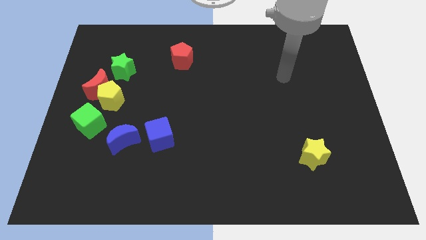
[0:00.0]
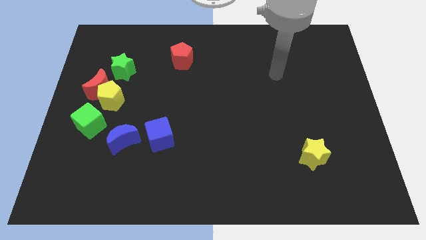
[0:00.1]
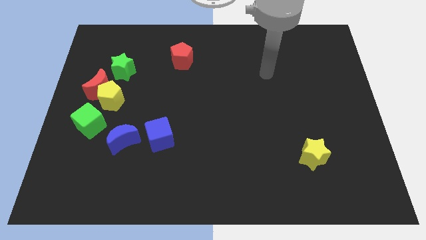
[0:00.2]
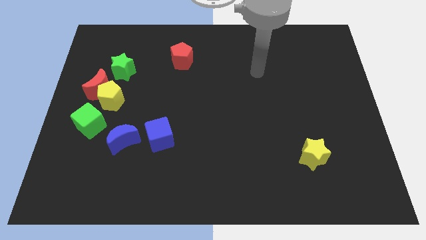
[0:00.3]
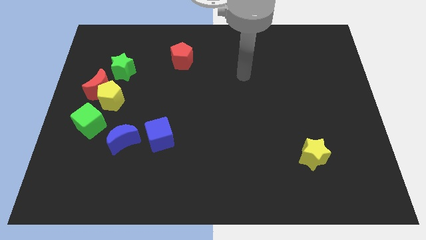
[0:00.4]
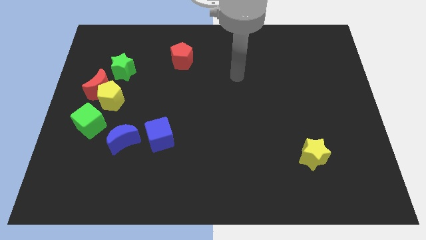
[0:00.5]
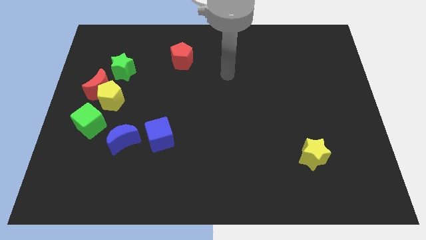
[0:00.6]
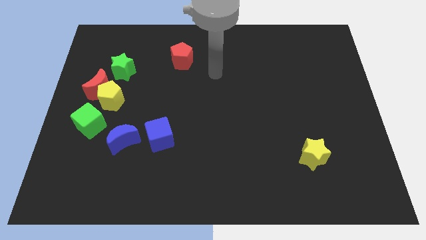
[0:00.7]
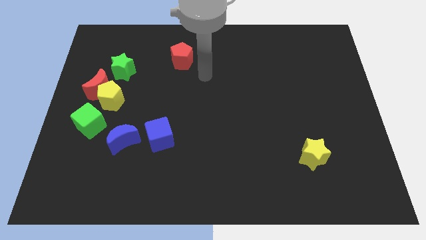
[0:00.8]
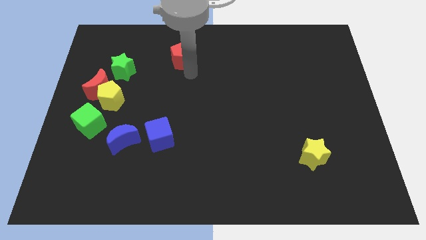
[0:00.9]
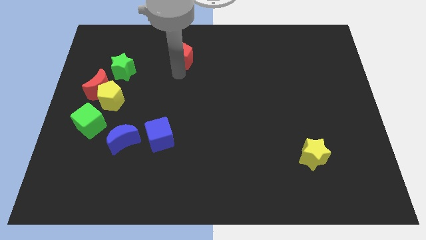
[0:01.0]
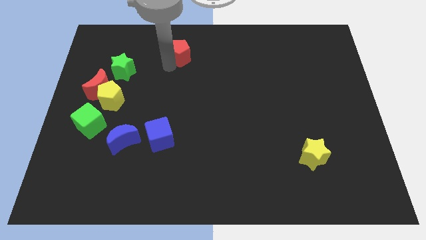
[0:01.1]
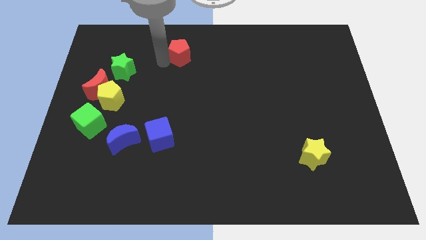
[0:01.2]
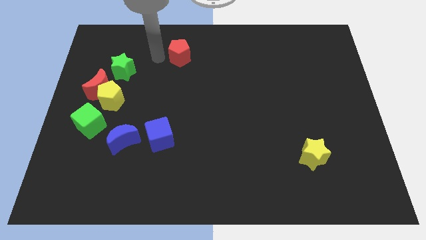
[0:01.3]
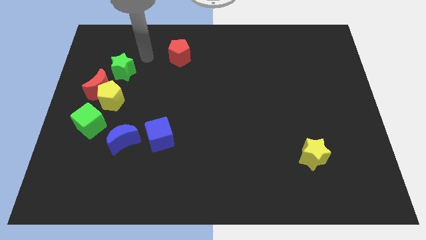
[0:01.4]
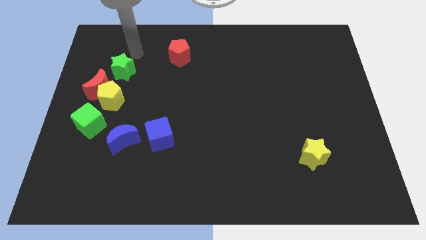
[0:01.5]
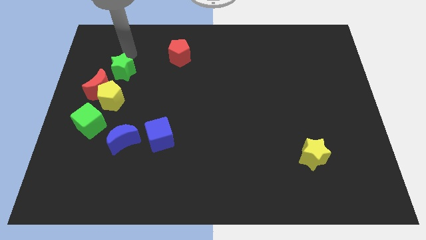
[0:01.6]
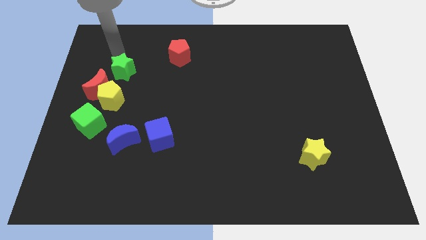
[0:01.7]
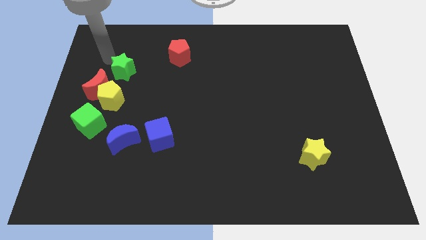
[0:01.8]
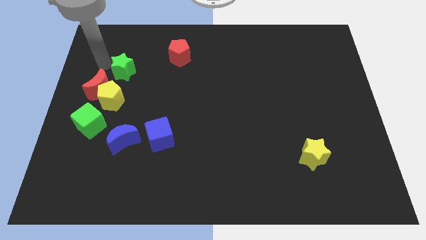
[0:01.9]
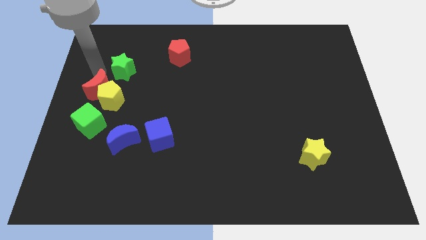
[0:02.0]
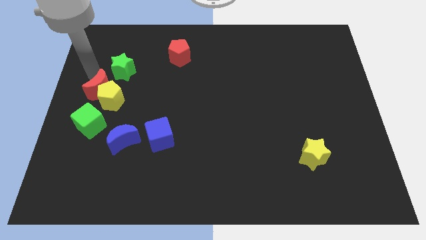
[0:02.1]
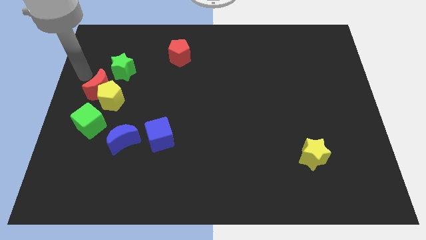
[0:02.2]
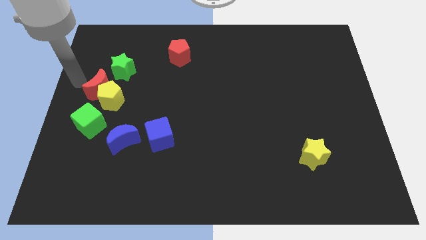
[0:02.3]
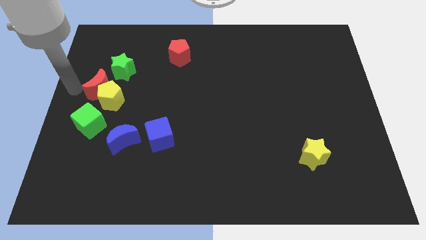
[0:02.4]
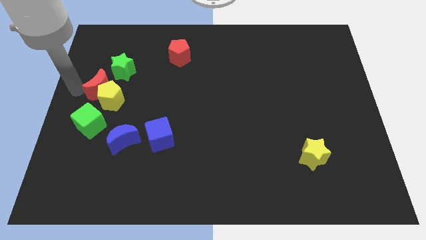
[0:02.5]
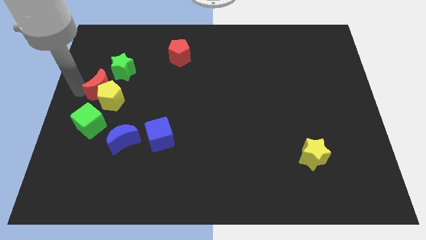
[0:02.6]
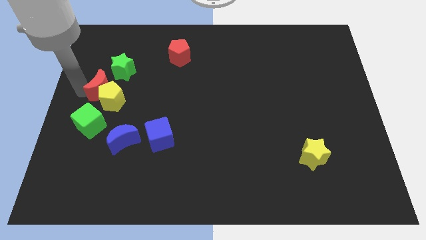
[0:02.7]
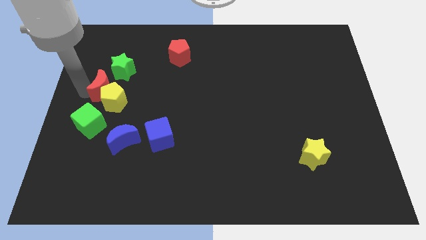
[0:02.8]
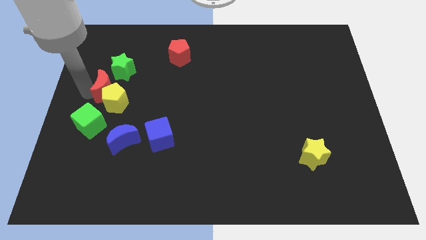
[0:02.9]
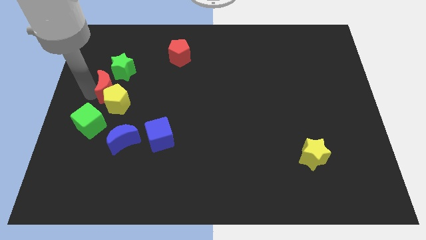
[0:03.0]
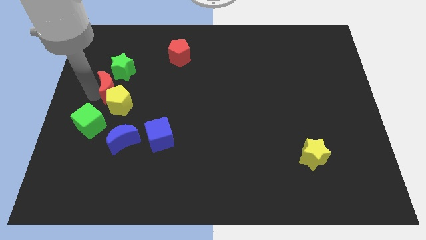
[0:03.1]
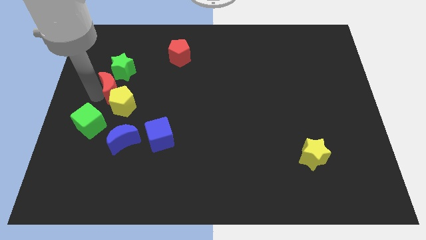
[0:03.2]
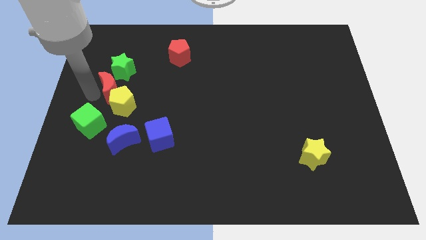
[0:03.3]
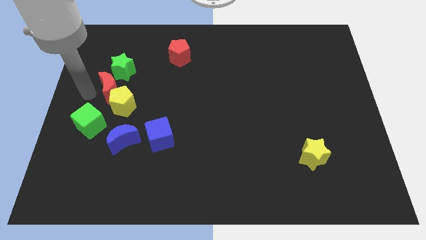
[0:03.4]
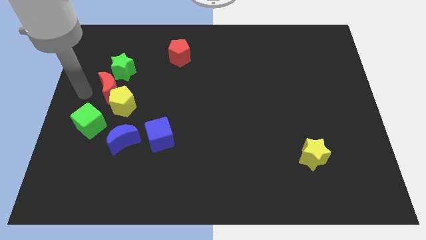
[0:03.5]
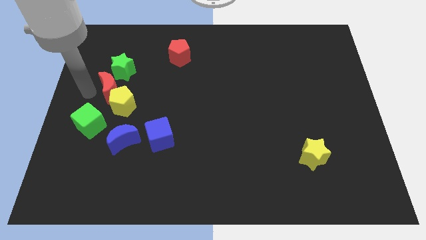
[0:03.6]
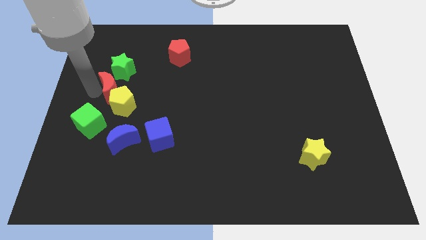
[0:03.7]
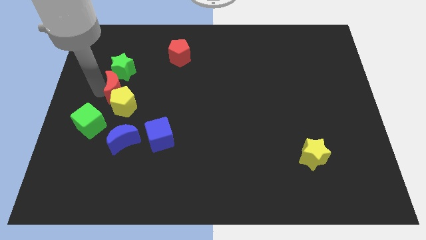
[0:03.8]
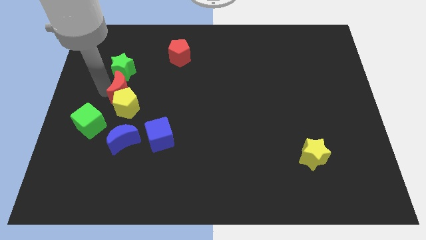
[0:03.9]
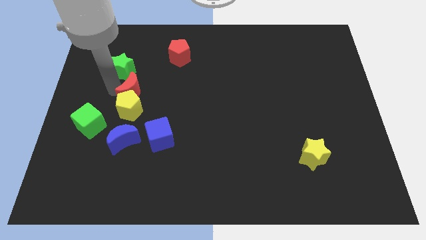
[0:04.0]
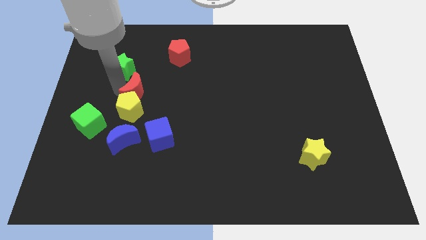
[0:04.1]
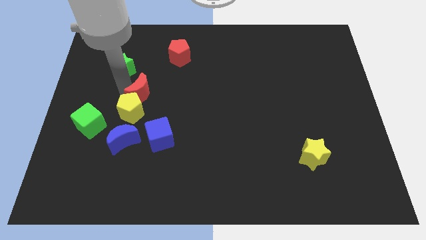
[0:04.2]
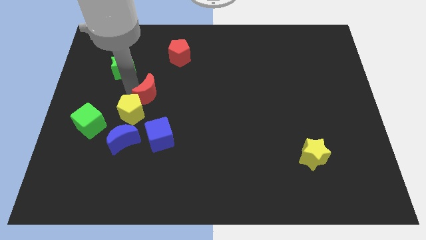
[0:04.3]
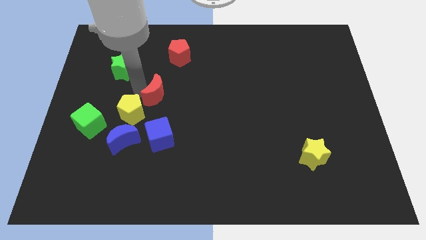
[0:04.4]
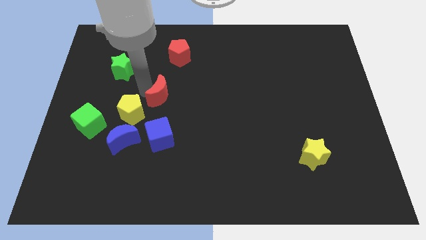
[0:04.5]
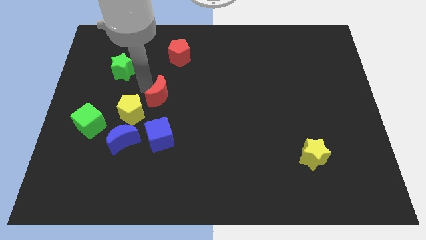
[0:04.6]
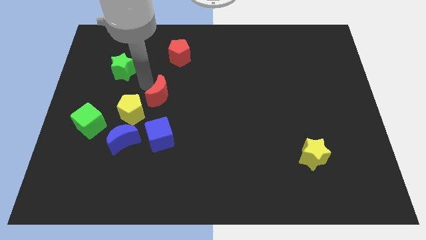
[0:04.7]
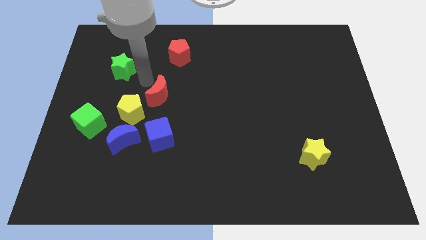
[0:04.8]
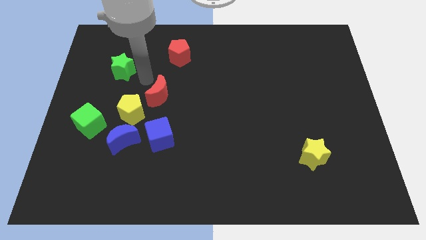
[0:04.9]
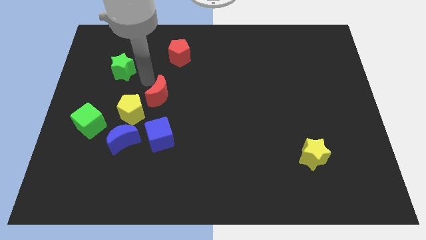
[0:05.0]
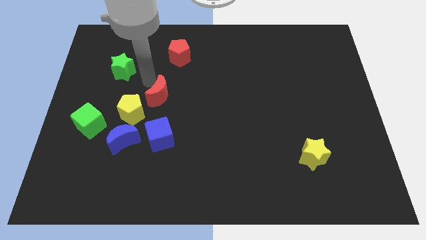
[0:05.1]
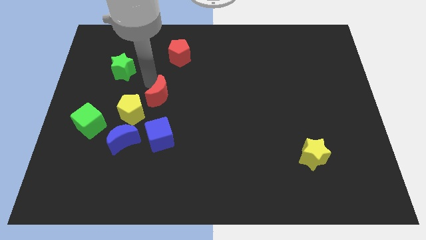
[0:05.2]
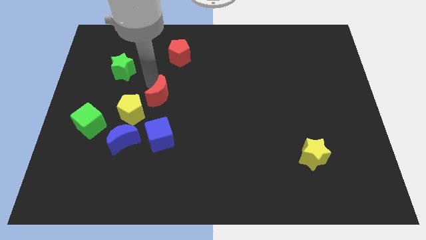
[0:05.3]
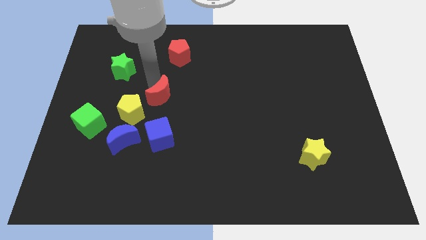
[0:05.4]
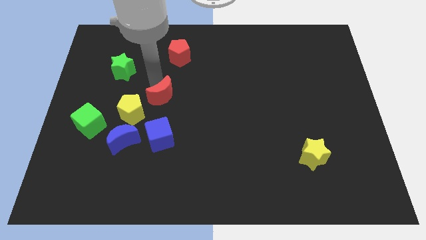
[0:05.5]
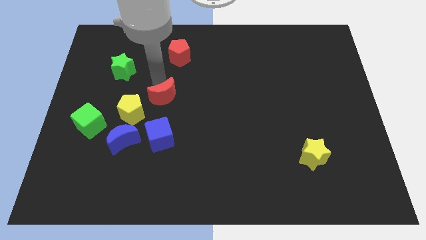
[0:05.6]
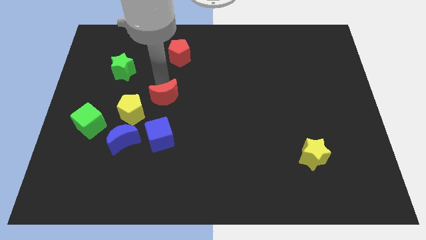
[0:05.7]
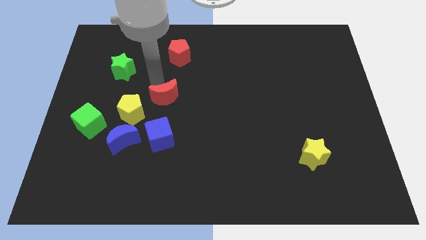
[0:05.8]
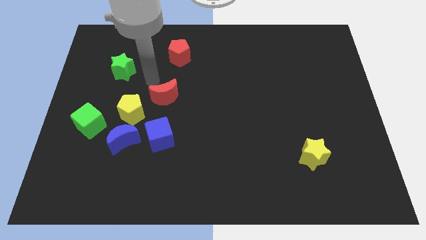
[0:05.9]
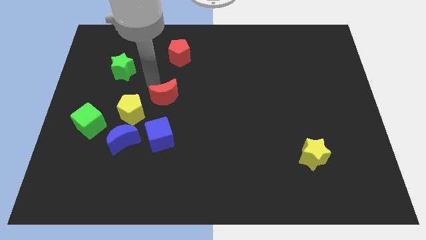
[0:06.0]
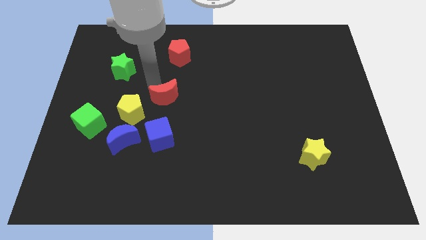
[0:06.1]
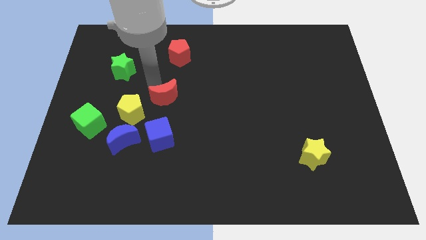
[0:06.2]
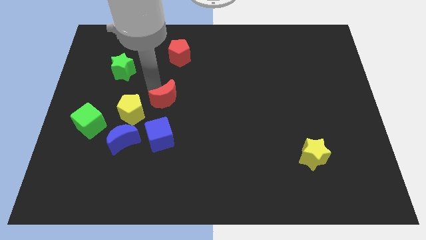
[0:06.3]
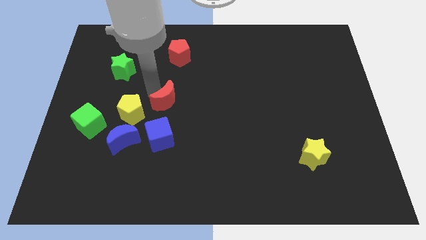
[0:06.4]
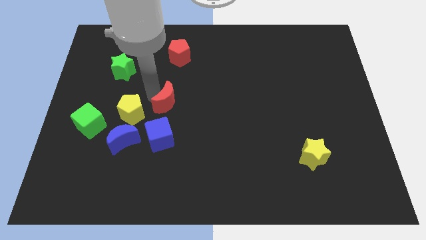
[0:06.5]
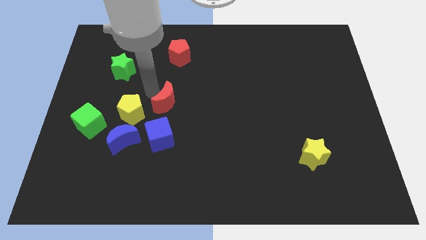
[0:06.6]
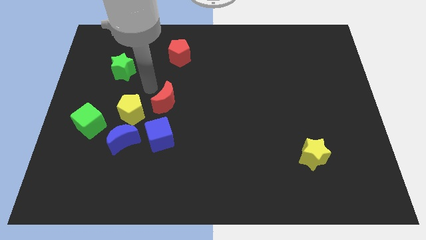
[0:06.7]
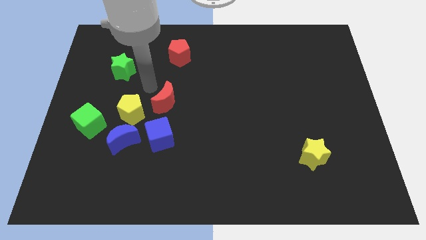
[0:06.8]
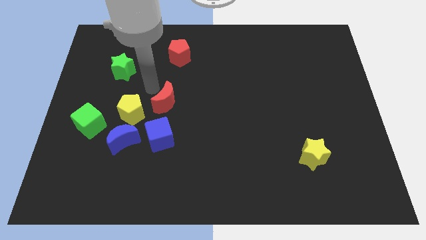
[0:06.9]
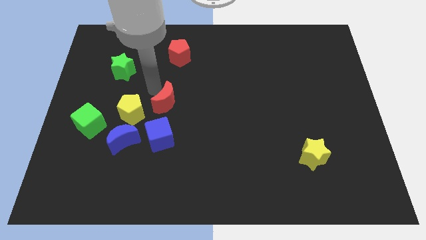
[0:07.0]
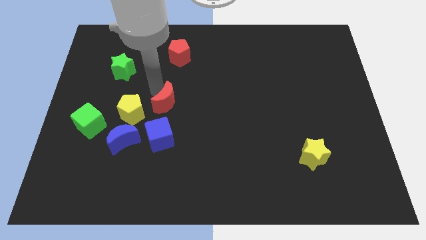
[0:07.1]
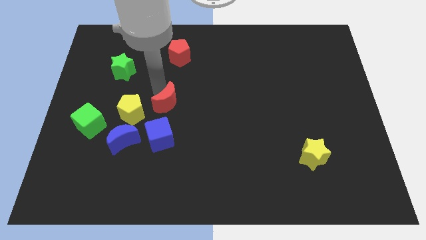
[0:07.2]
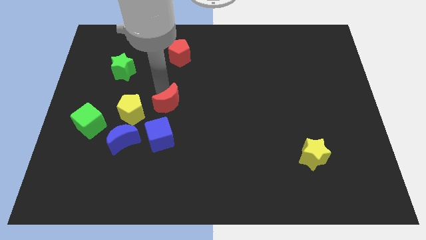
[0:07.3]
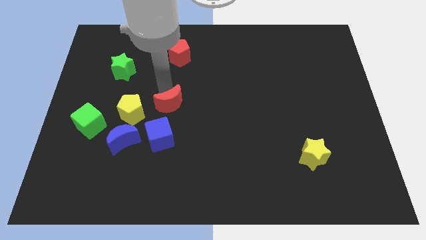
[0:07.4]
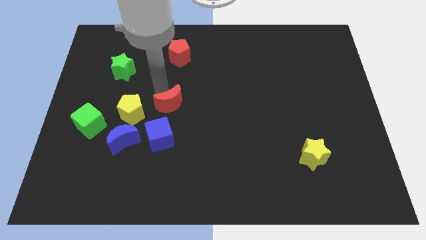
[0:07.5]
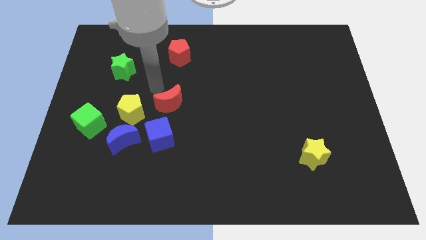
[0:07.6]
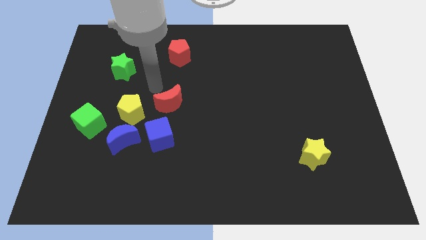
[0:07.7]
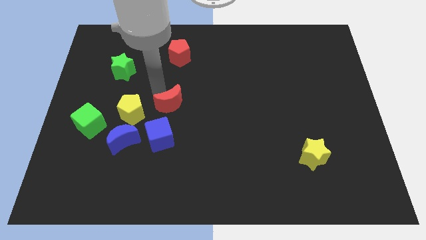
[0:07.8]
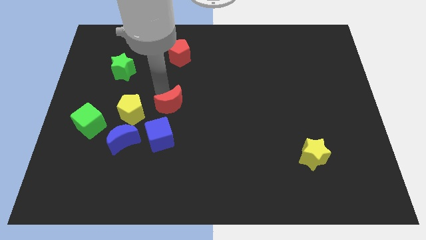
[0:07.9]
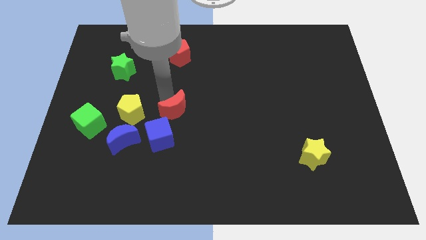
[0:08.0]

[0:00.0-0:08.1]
slide the red moon diagonally up and to the right of the blue cube
